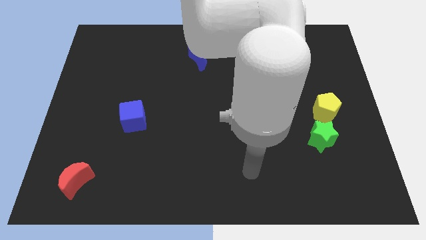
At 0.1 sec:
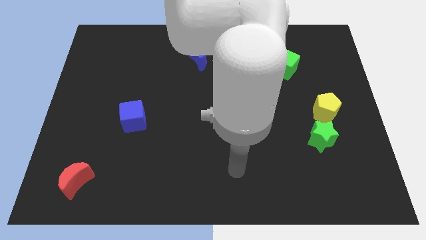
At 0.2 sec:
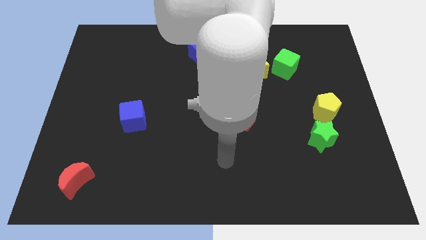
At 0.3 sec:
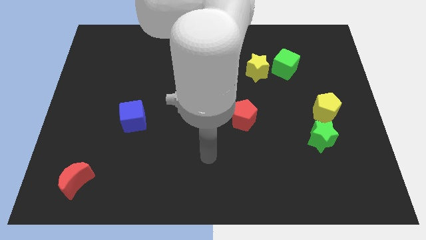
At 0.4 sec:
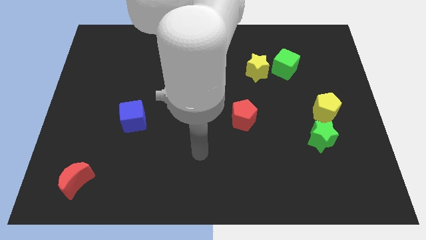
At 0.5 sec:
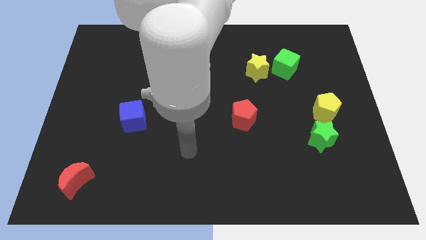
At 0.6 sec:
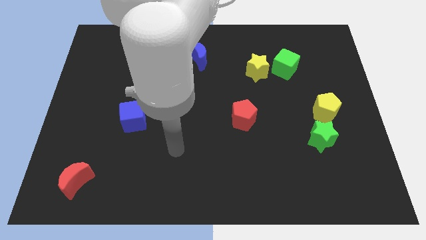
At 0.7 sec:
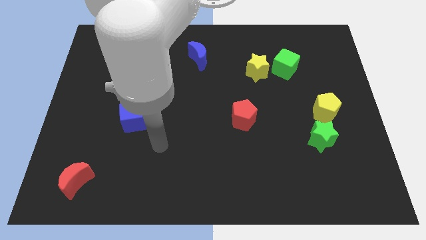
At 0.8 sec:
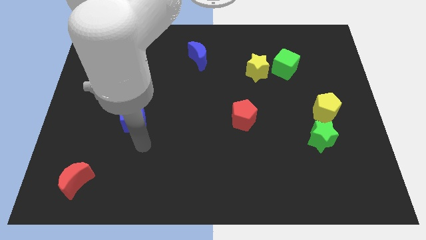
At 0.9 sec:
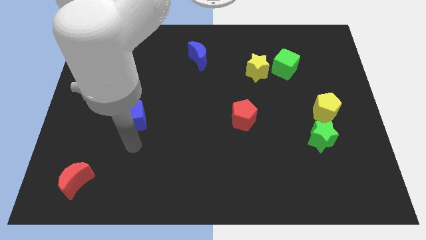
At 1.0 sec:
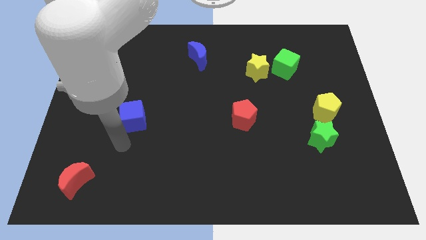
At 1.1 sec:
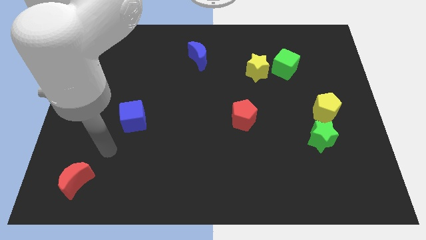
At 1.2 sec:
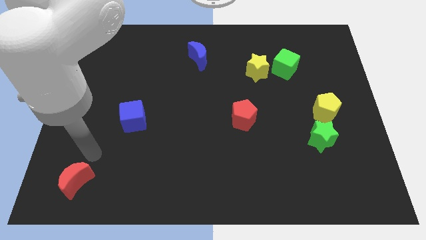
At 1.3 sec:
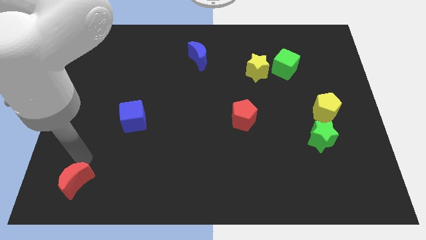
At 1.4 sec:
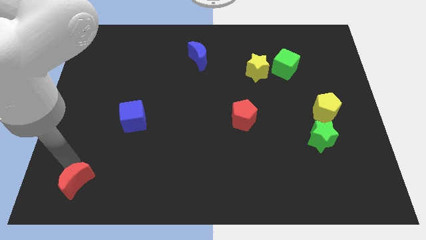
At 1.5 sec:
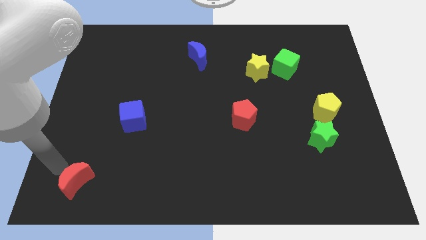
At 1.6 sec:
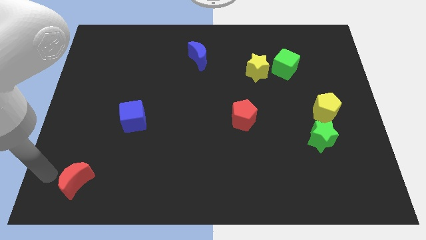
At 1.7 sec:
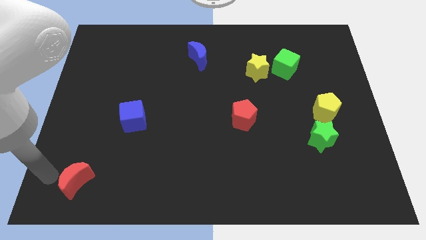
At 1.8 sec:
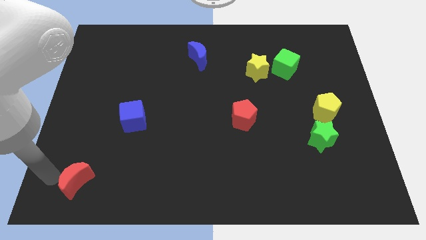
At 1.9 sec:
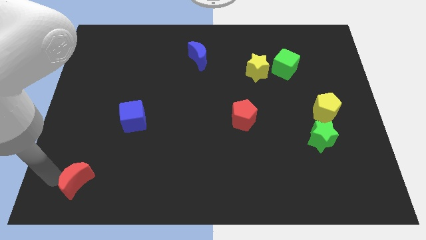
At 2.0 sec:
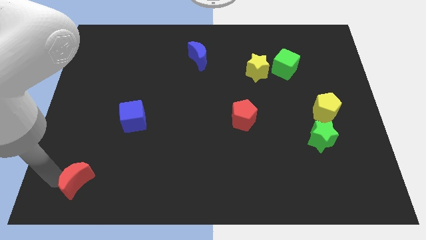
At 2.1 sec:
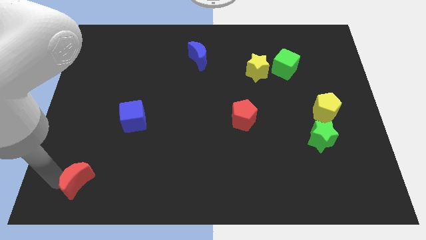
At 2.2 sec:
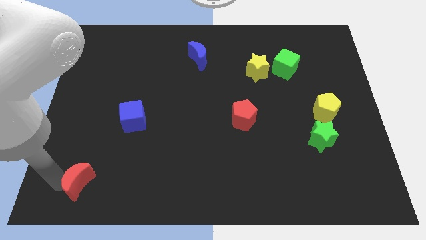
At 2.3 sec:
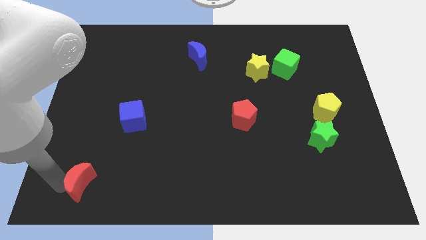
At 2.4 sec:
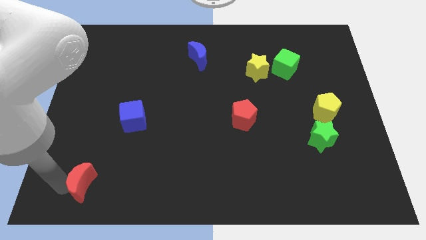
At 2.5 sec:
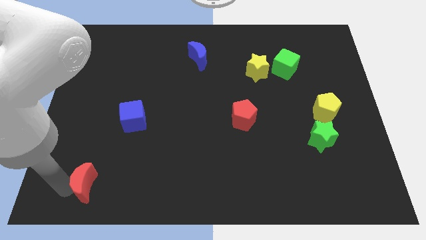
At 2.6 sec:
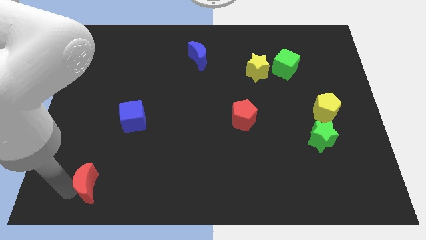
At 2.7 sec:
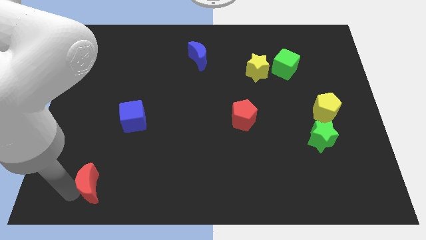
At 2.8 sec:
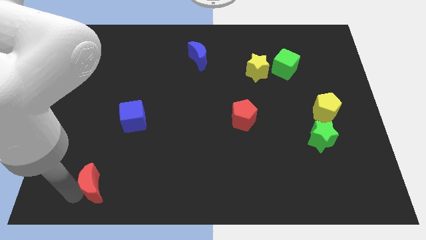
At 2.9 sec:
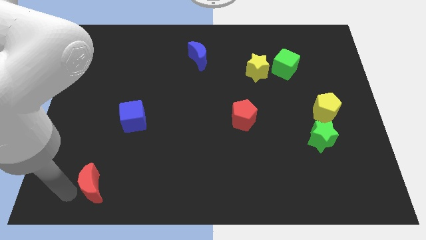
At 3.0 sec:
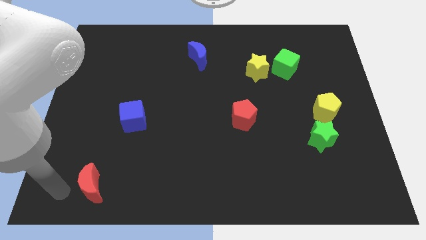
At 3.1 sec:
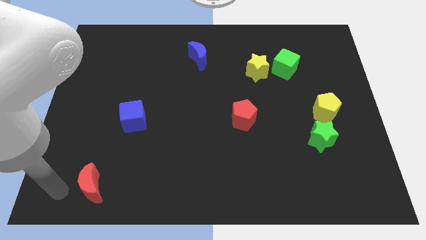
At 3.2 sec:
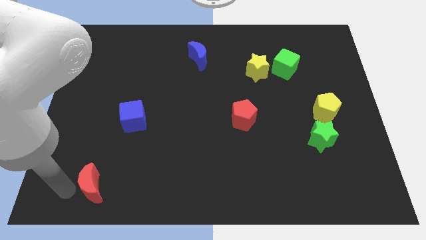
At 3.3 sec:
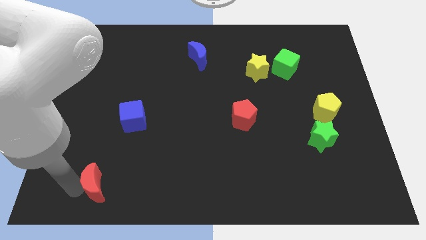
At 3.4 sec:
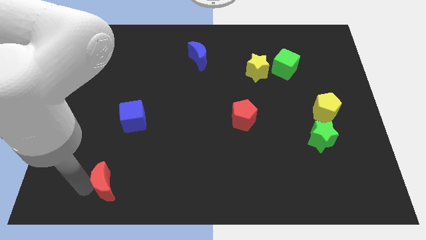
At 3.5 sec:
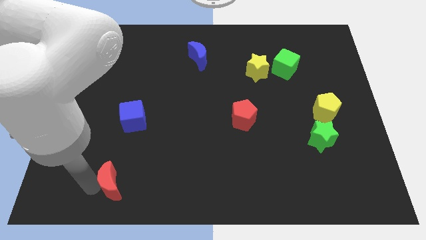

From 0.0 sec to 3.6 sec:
slightly move the red moon right

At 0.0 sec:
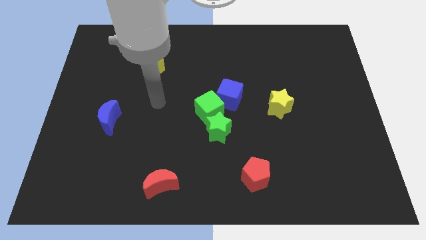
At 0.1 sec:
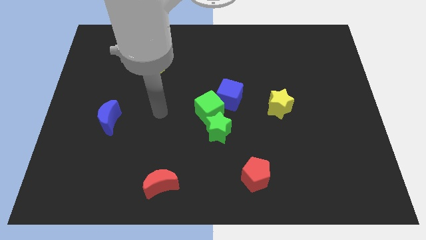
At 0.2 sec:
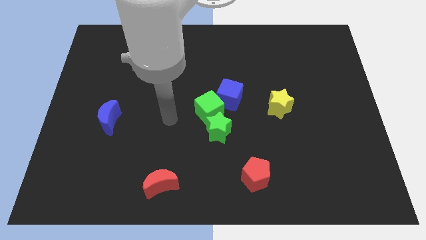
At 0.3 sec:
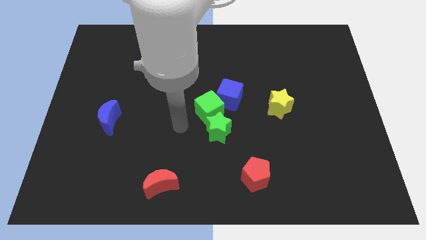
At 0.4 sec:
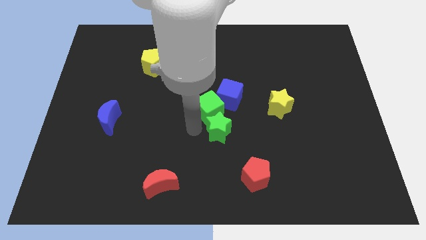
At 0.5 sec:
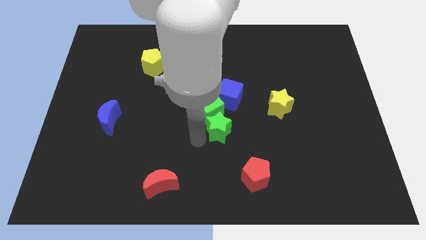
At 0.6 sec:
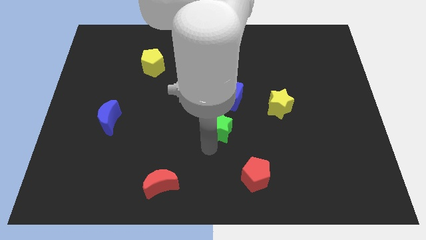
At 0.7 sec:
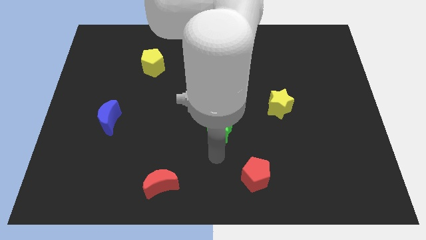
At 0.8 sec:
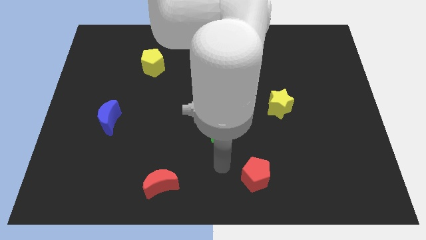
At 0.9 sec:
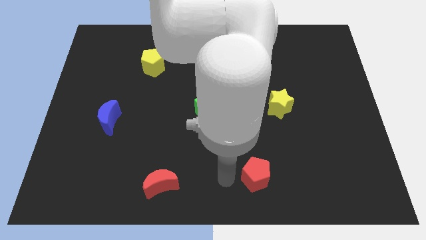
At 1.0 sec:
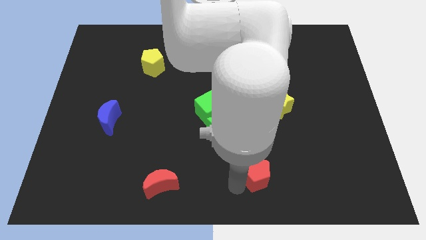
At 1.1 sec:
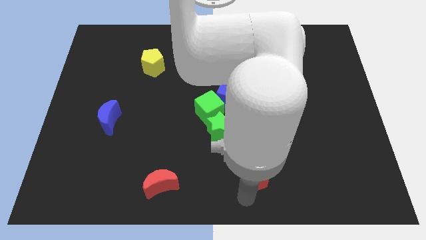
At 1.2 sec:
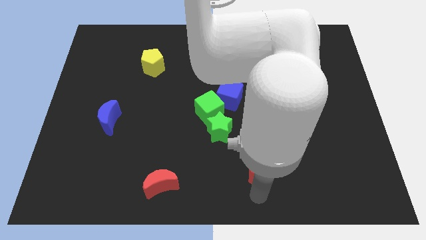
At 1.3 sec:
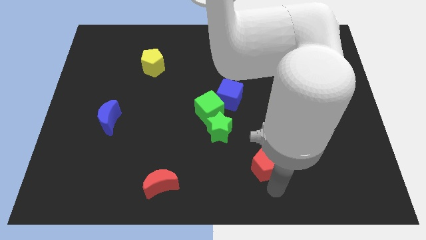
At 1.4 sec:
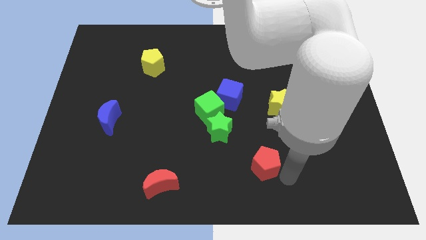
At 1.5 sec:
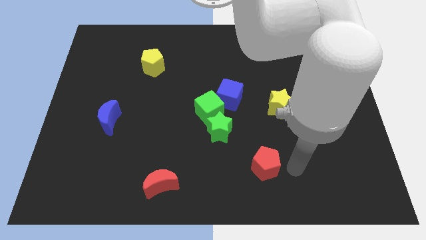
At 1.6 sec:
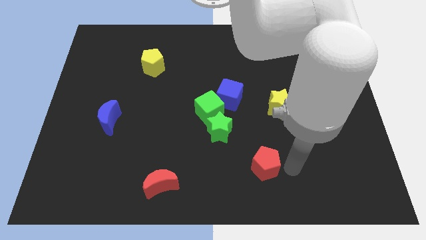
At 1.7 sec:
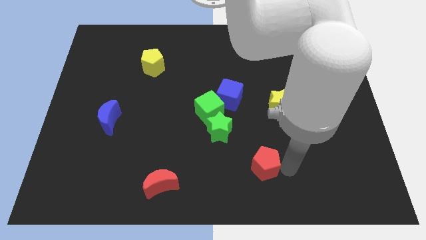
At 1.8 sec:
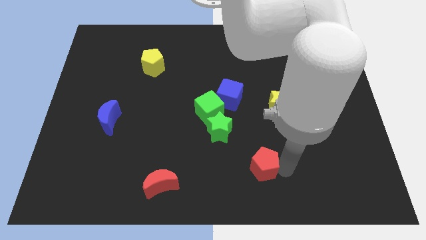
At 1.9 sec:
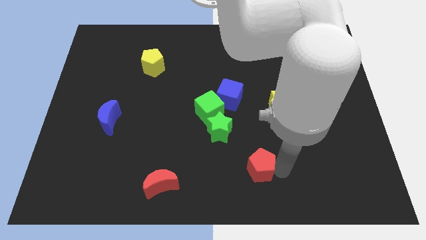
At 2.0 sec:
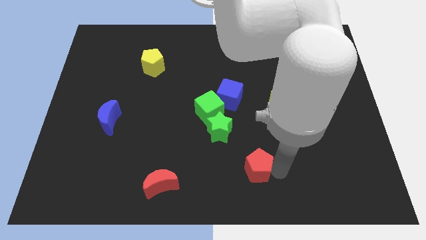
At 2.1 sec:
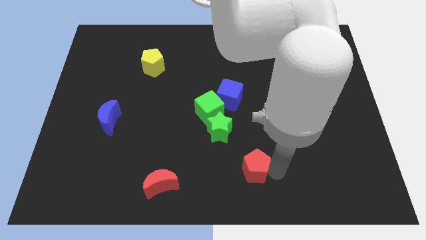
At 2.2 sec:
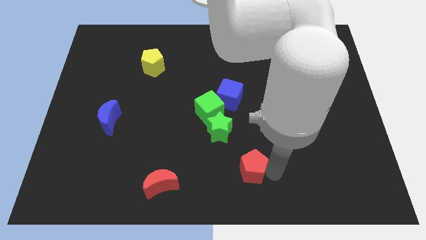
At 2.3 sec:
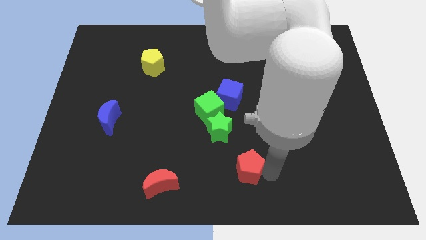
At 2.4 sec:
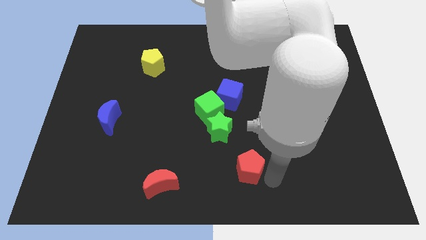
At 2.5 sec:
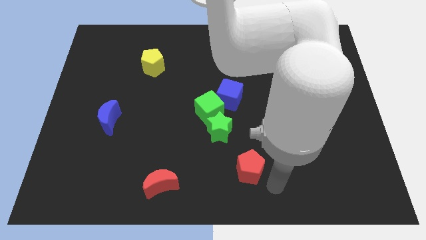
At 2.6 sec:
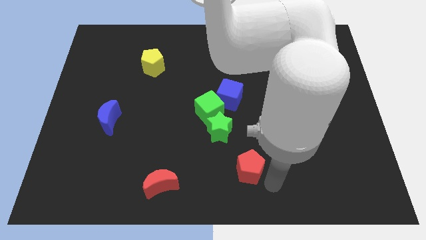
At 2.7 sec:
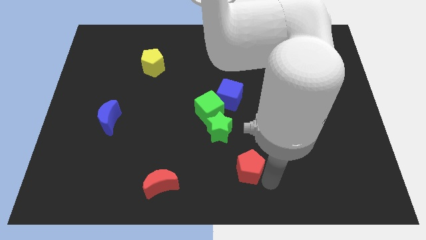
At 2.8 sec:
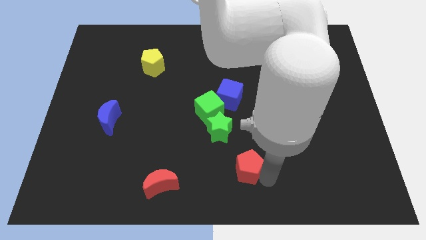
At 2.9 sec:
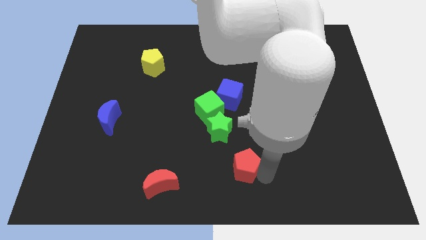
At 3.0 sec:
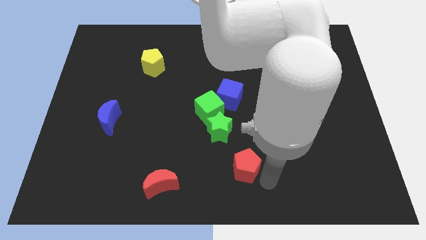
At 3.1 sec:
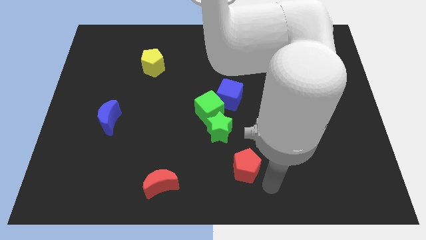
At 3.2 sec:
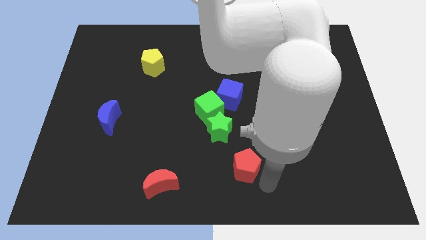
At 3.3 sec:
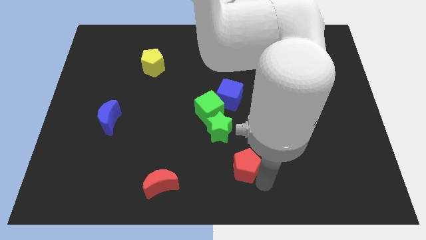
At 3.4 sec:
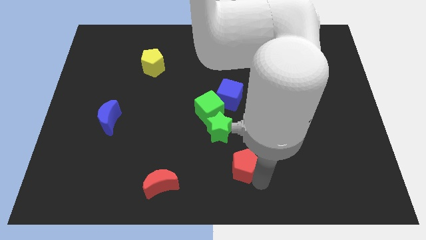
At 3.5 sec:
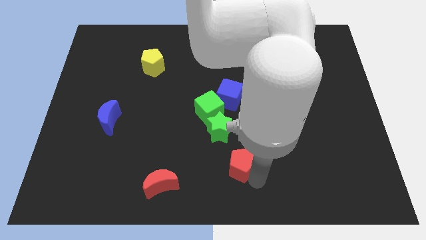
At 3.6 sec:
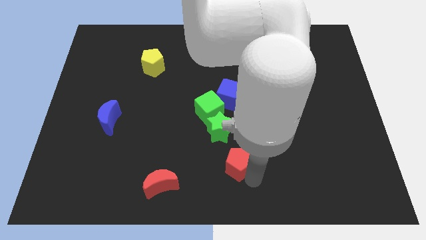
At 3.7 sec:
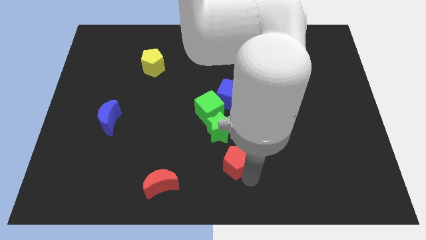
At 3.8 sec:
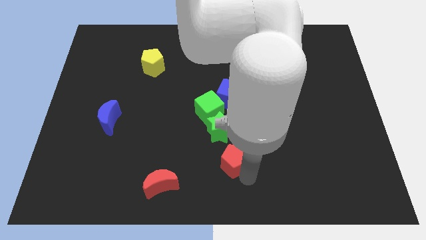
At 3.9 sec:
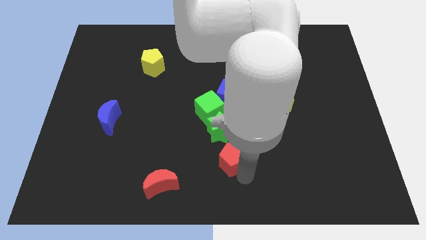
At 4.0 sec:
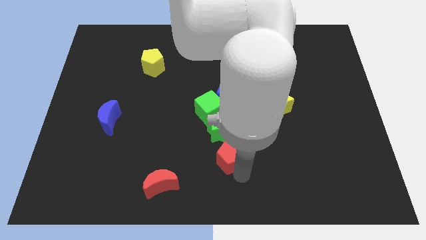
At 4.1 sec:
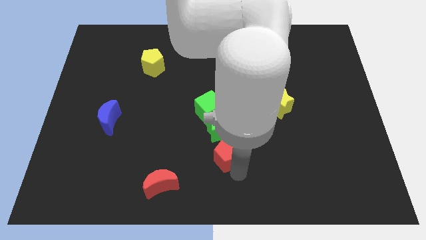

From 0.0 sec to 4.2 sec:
slightly slide the red pentagon upwards and left diagonally

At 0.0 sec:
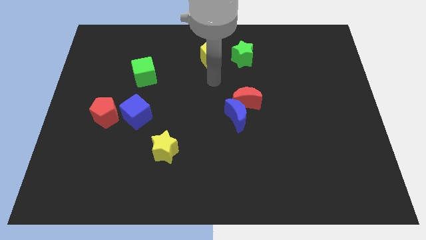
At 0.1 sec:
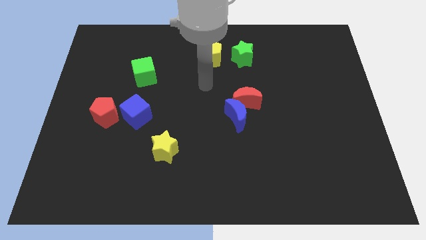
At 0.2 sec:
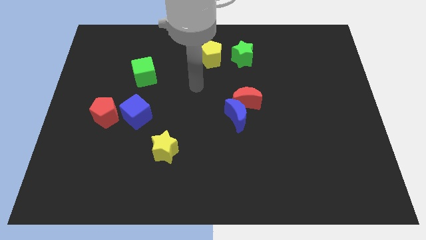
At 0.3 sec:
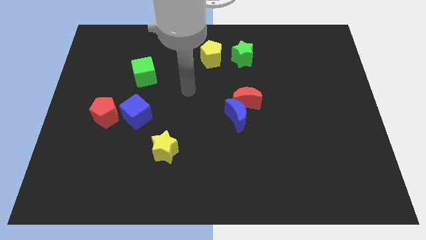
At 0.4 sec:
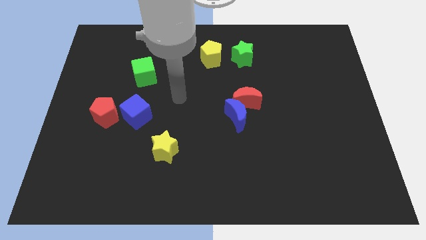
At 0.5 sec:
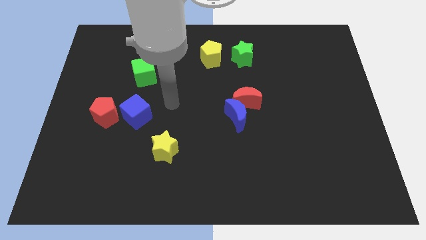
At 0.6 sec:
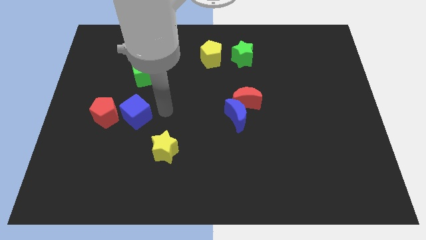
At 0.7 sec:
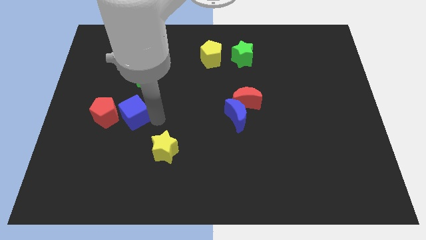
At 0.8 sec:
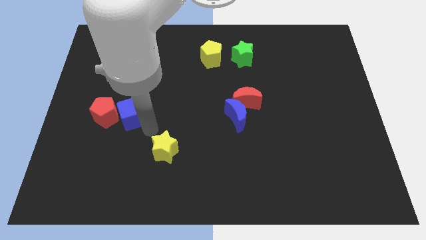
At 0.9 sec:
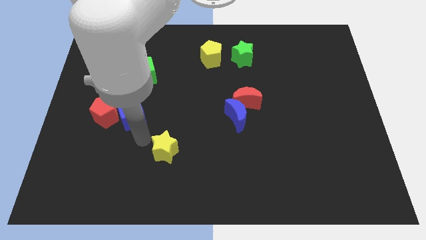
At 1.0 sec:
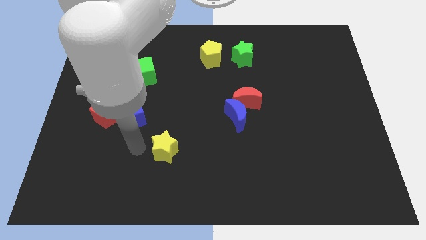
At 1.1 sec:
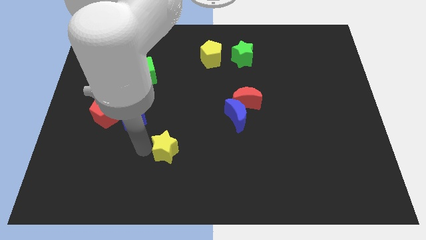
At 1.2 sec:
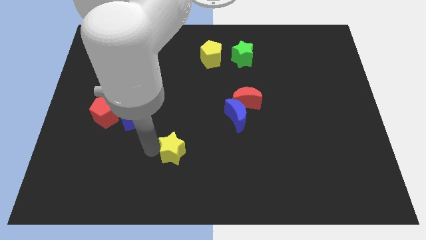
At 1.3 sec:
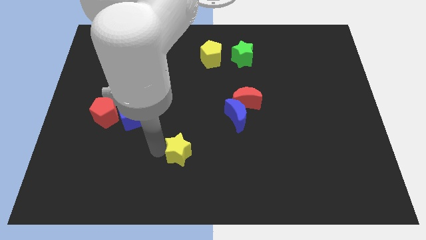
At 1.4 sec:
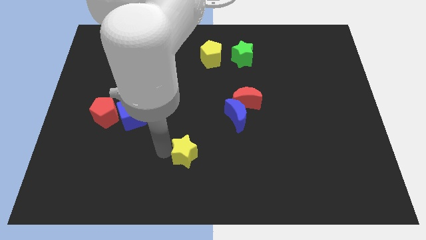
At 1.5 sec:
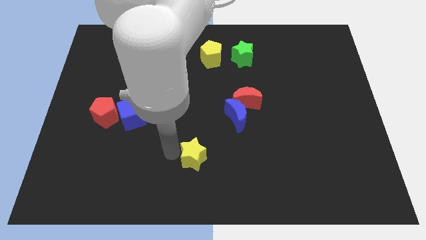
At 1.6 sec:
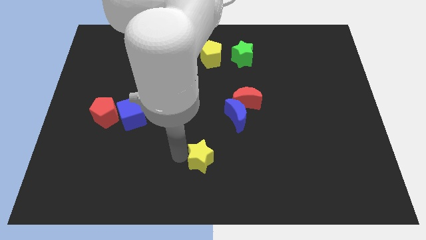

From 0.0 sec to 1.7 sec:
slightly push the yellow star right
